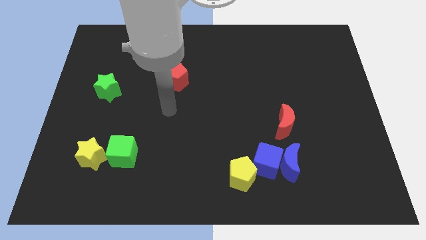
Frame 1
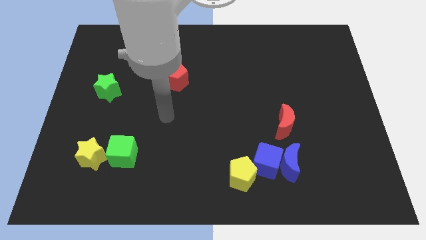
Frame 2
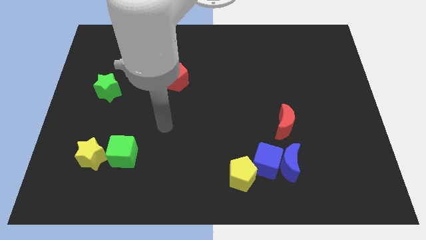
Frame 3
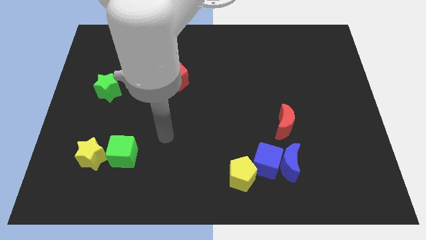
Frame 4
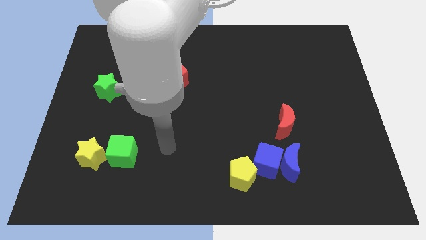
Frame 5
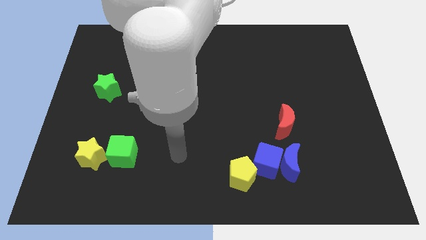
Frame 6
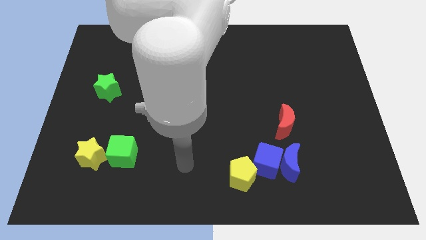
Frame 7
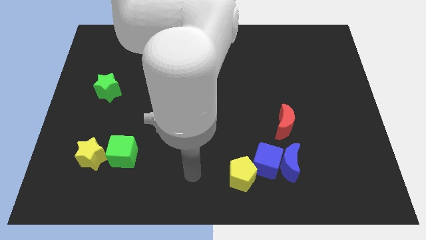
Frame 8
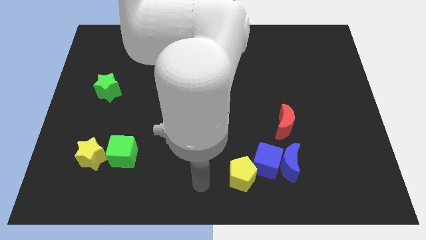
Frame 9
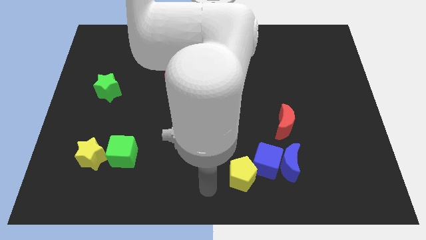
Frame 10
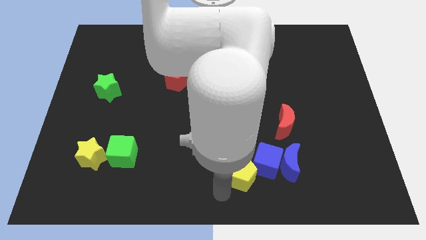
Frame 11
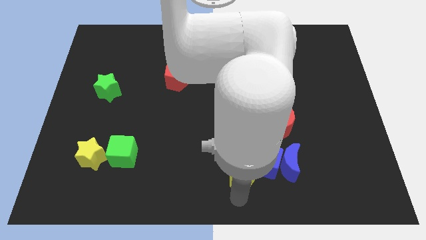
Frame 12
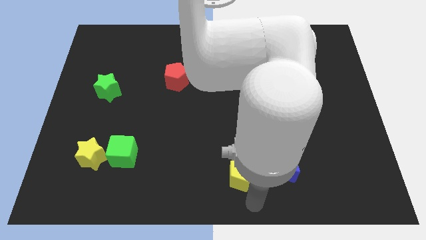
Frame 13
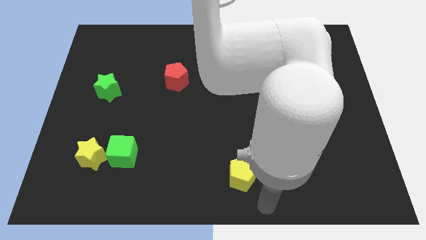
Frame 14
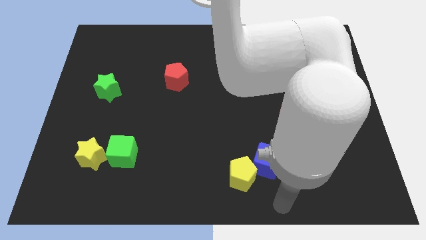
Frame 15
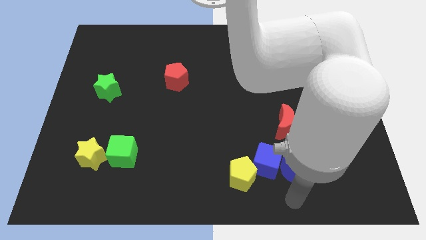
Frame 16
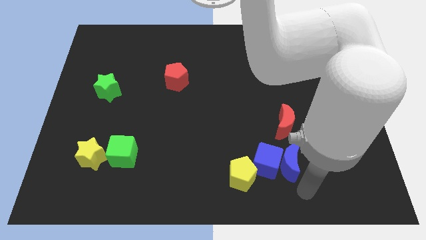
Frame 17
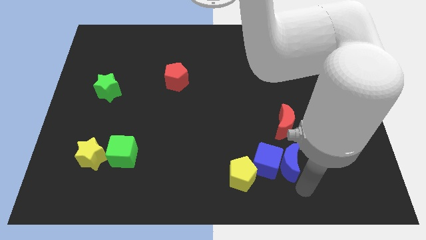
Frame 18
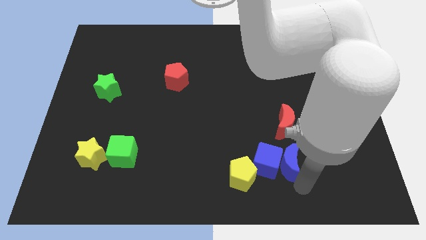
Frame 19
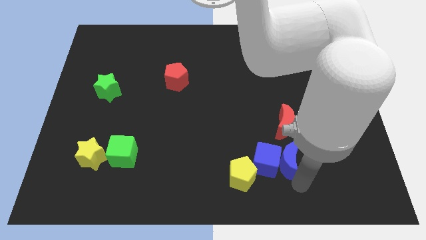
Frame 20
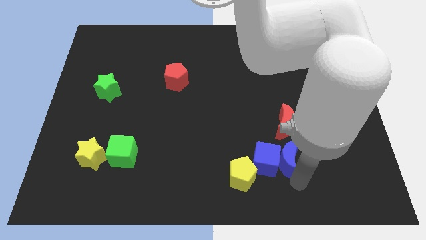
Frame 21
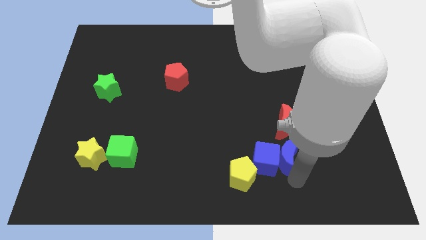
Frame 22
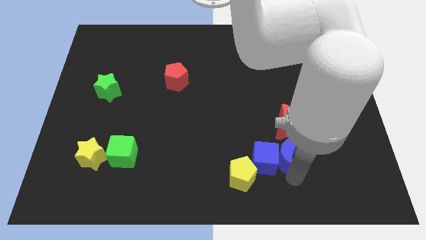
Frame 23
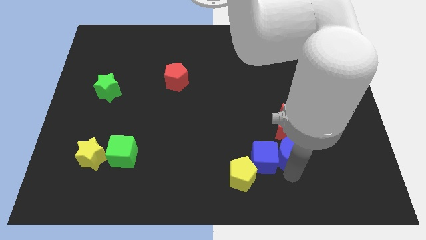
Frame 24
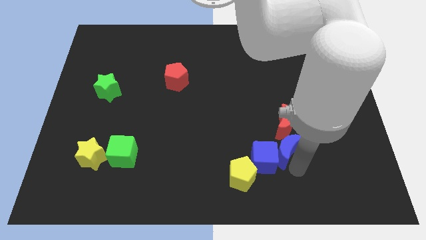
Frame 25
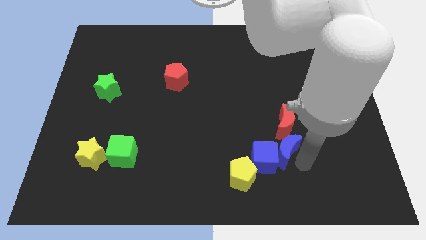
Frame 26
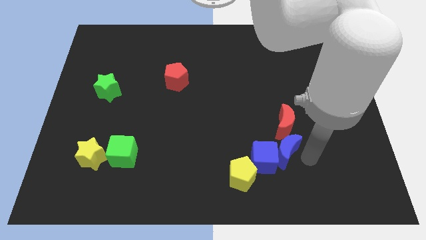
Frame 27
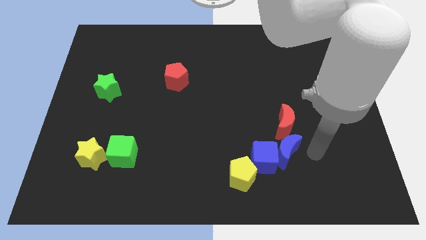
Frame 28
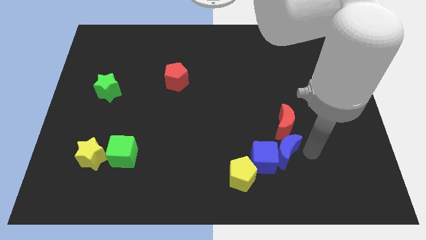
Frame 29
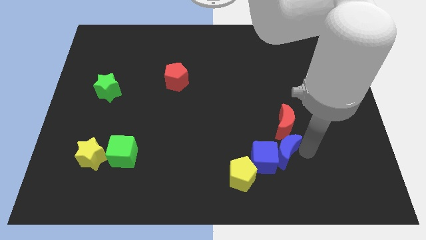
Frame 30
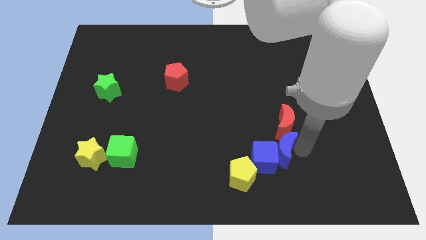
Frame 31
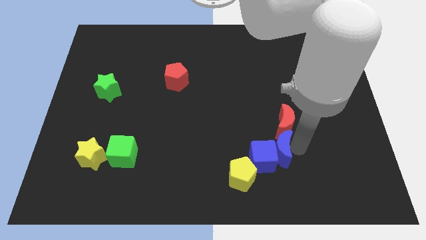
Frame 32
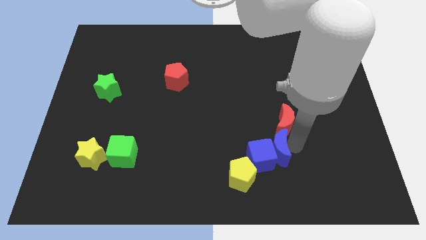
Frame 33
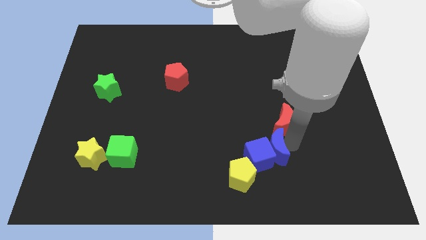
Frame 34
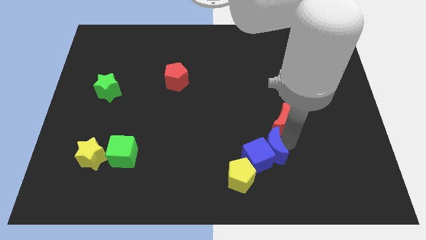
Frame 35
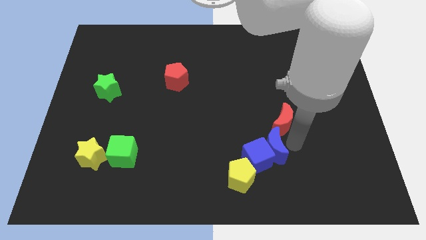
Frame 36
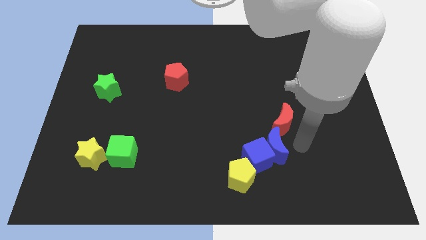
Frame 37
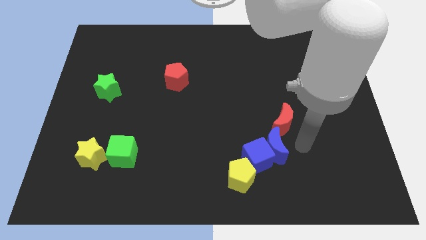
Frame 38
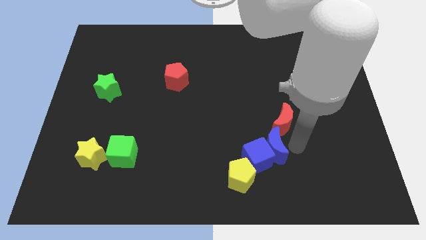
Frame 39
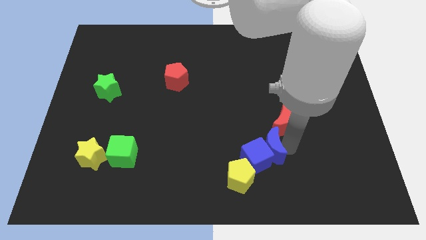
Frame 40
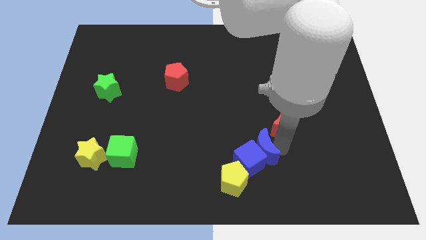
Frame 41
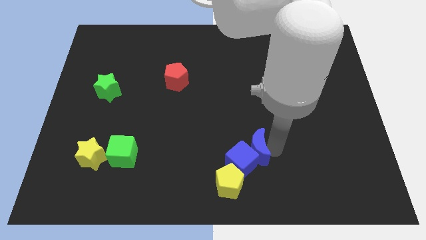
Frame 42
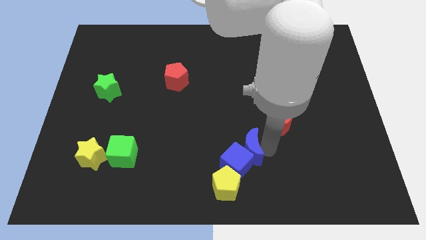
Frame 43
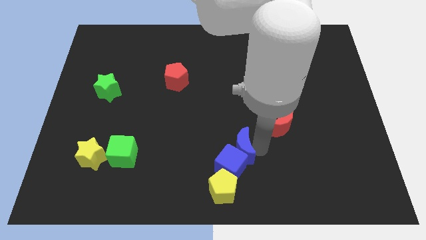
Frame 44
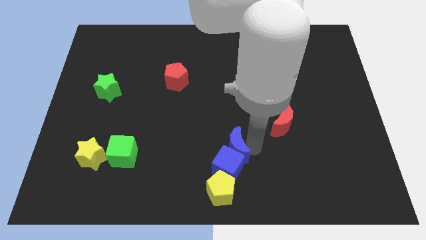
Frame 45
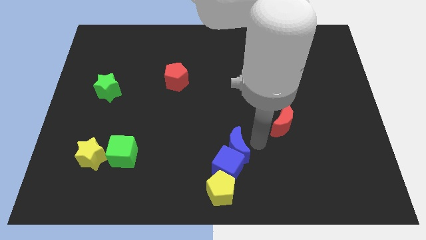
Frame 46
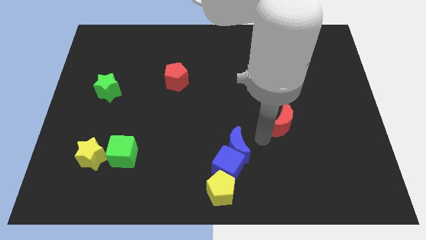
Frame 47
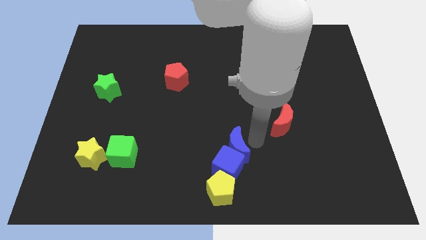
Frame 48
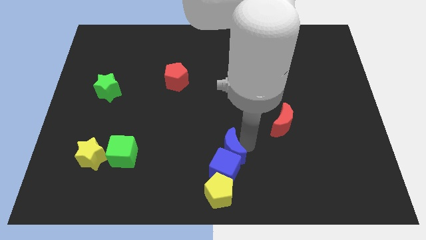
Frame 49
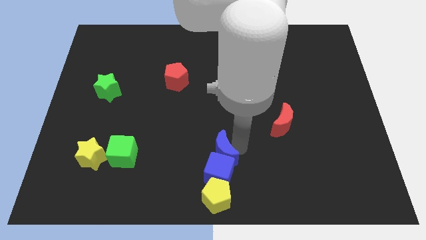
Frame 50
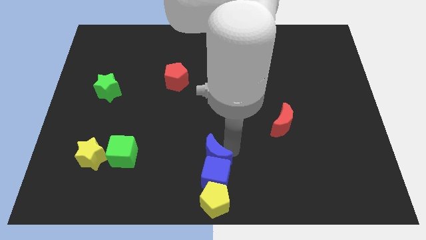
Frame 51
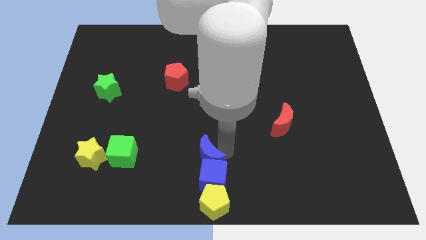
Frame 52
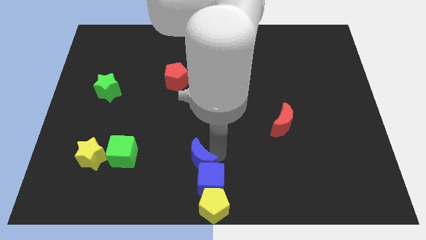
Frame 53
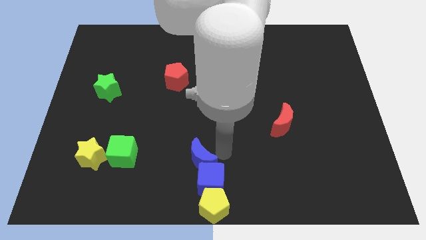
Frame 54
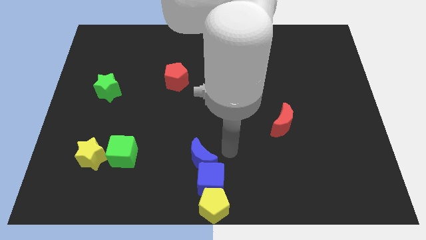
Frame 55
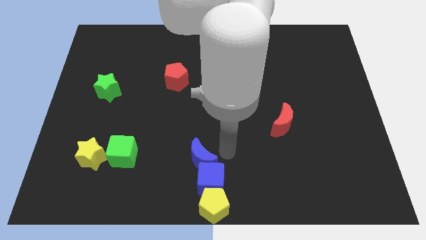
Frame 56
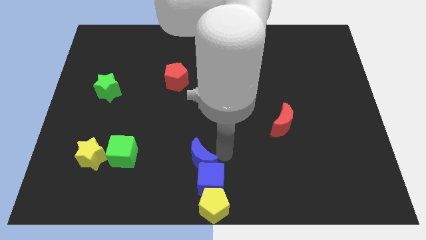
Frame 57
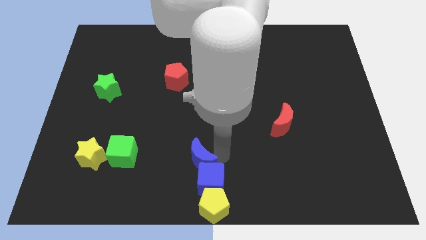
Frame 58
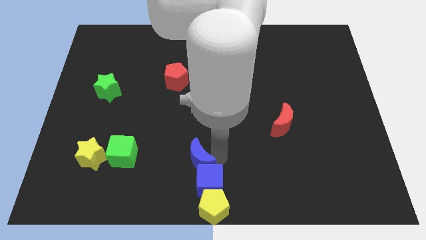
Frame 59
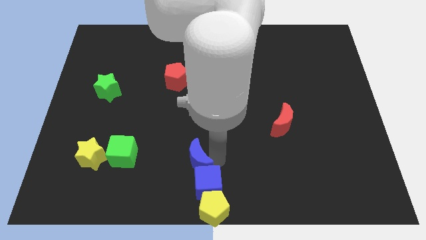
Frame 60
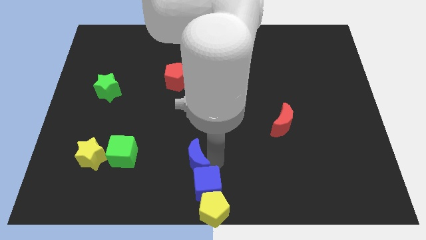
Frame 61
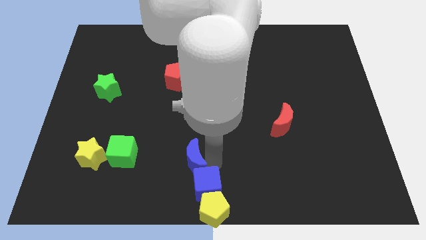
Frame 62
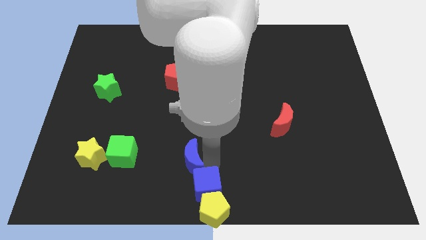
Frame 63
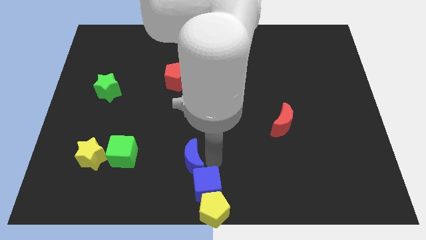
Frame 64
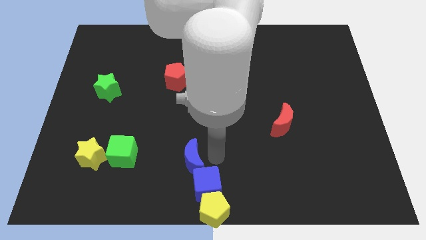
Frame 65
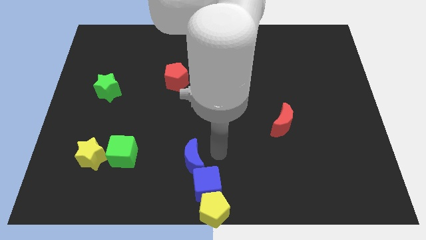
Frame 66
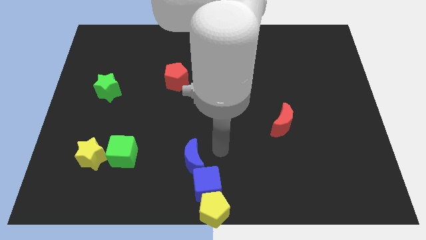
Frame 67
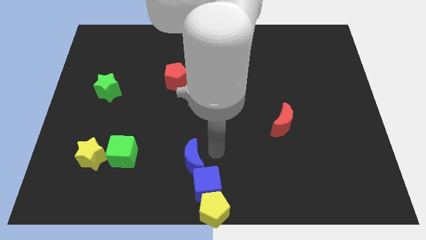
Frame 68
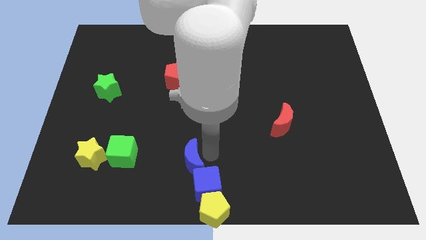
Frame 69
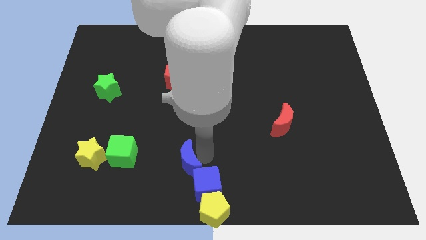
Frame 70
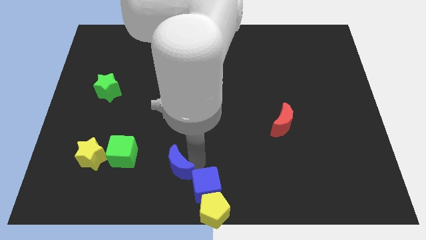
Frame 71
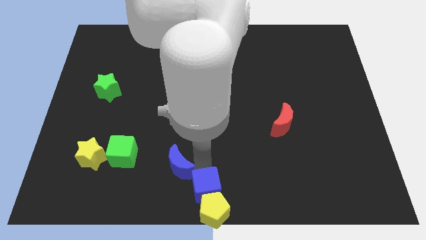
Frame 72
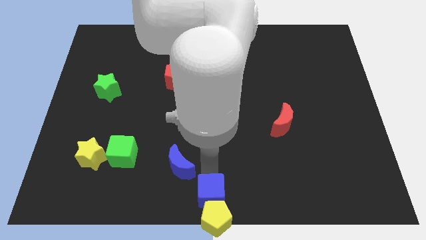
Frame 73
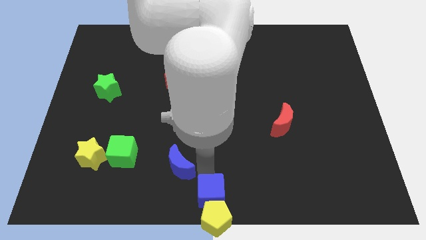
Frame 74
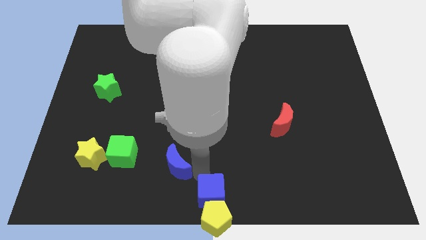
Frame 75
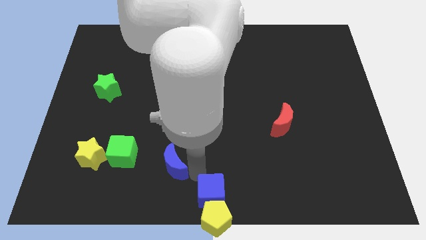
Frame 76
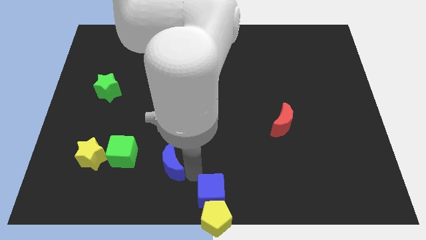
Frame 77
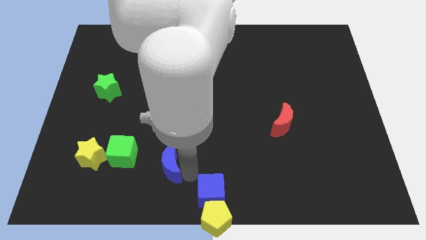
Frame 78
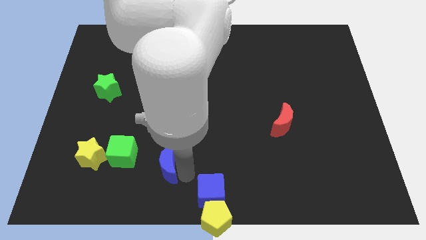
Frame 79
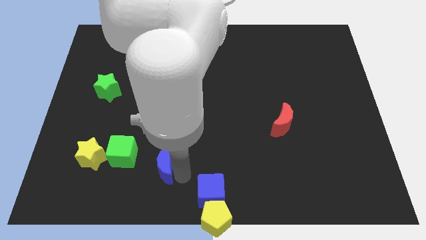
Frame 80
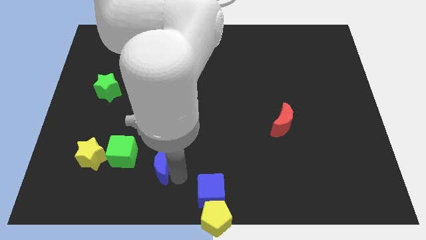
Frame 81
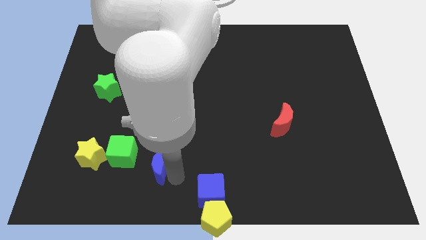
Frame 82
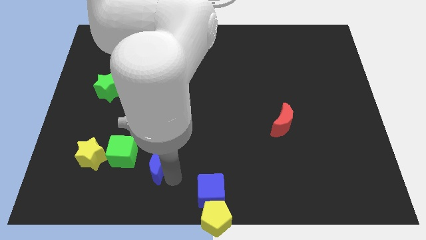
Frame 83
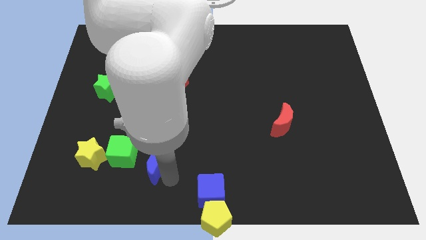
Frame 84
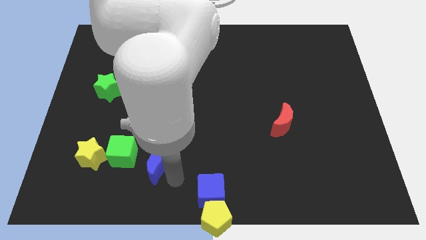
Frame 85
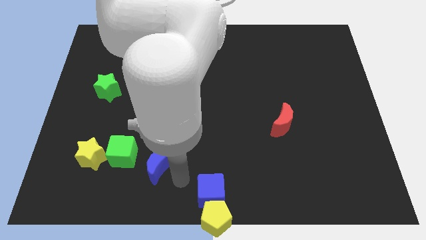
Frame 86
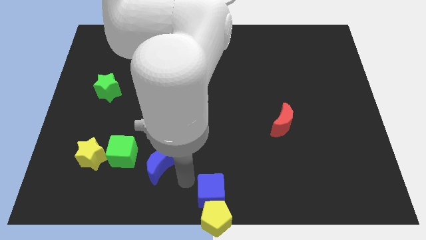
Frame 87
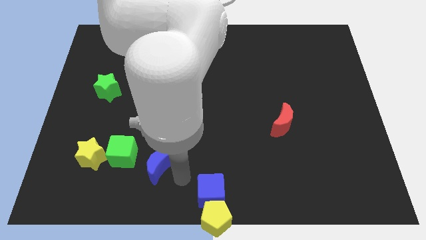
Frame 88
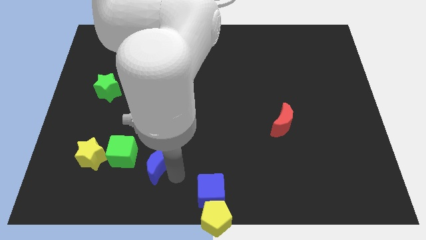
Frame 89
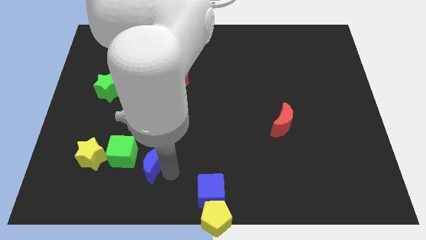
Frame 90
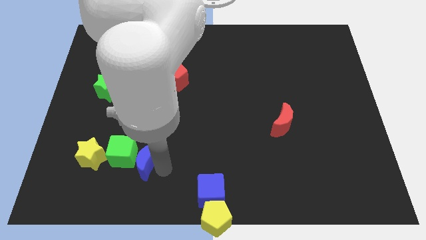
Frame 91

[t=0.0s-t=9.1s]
slide the blue moon close to the green cube
